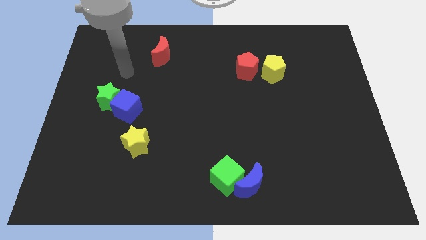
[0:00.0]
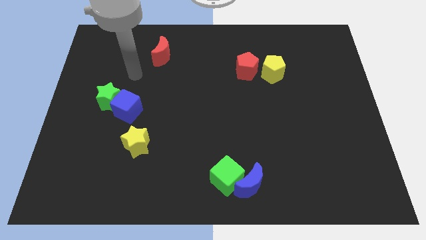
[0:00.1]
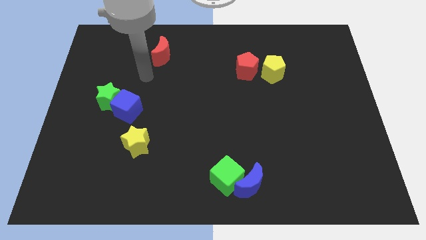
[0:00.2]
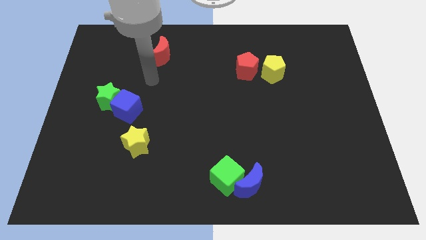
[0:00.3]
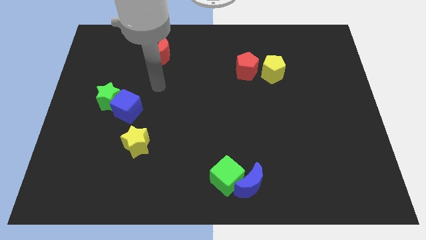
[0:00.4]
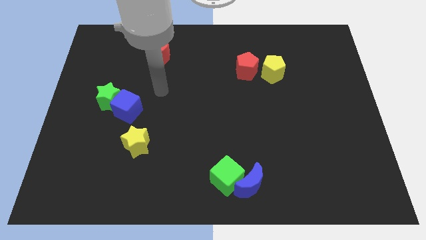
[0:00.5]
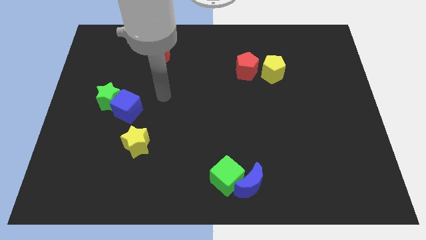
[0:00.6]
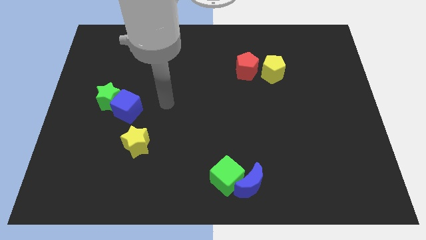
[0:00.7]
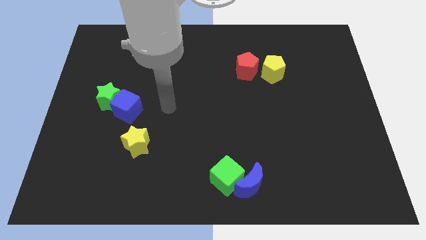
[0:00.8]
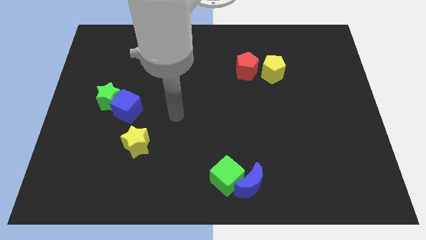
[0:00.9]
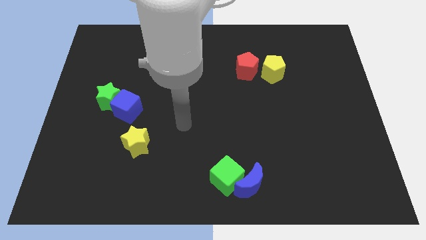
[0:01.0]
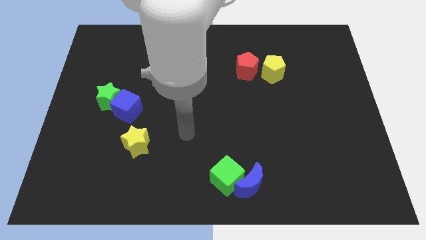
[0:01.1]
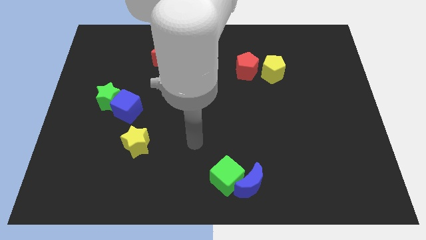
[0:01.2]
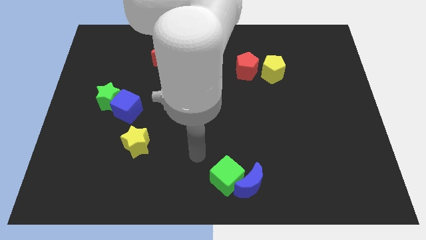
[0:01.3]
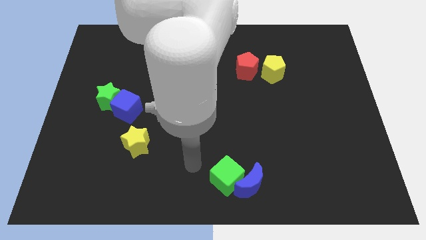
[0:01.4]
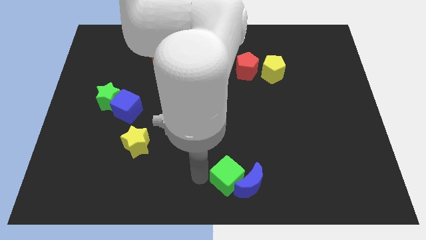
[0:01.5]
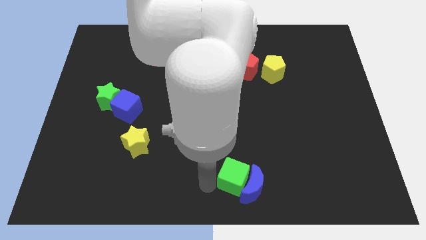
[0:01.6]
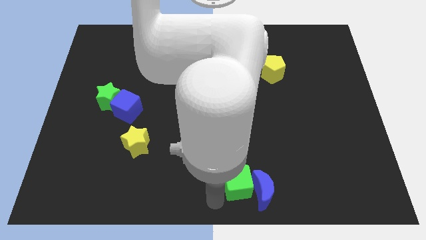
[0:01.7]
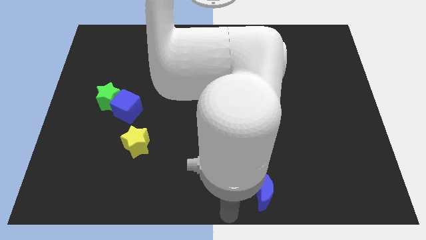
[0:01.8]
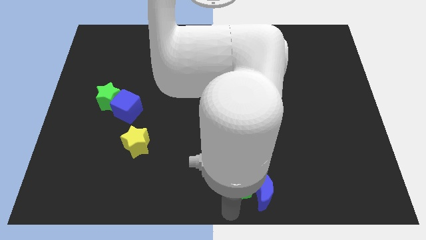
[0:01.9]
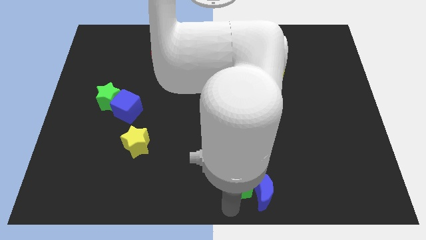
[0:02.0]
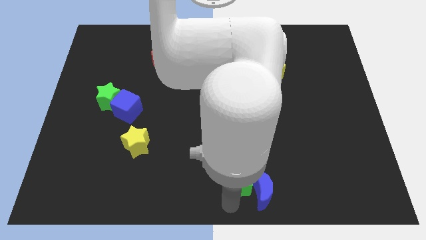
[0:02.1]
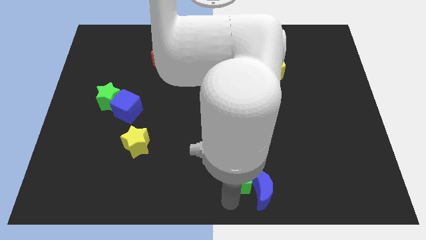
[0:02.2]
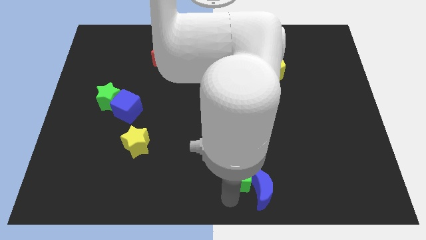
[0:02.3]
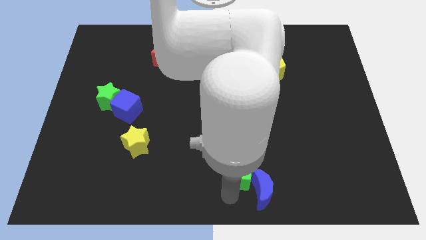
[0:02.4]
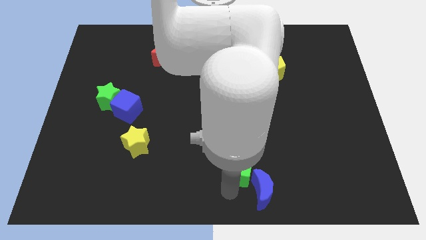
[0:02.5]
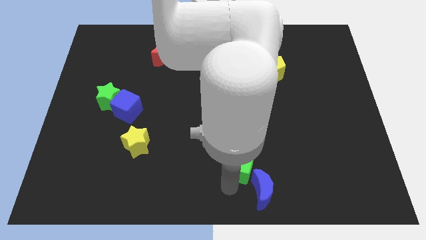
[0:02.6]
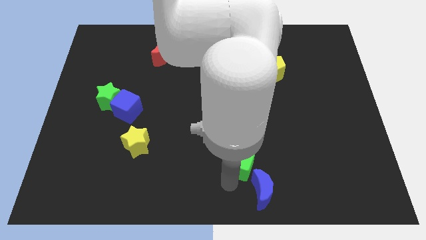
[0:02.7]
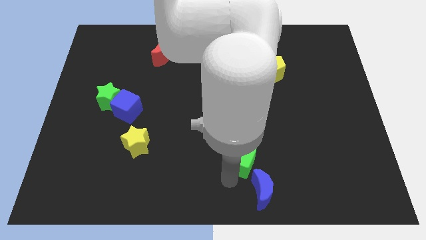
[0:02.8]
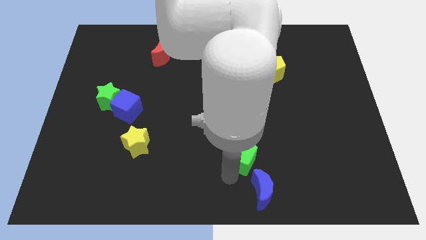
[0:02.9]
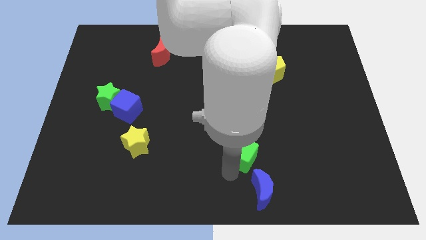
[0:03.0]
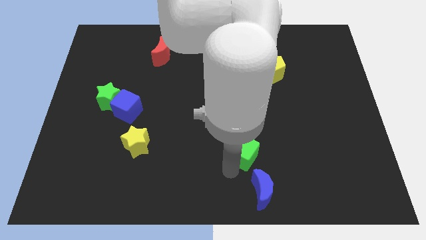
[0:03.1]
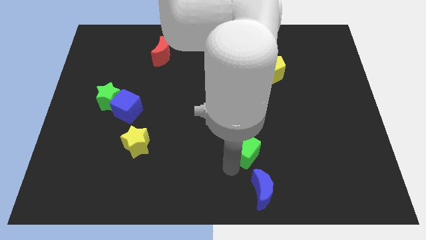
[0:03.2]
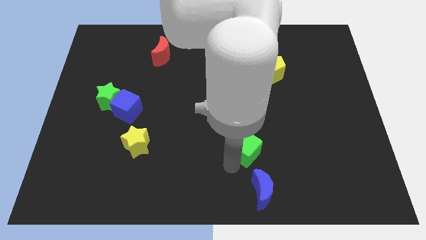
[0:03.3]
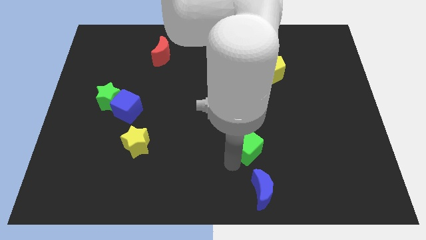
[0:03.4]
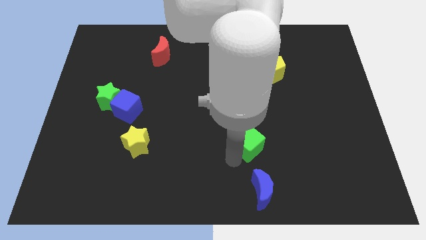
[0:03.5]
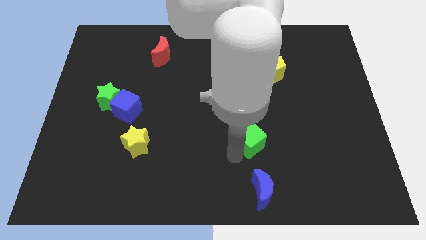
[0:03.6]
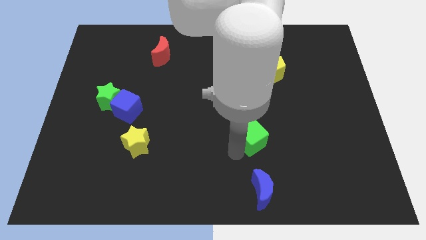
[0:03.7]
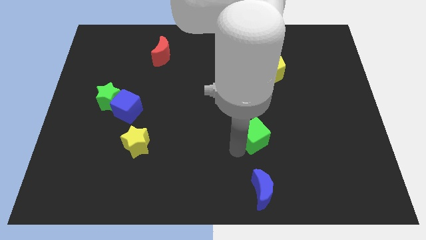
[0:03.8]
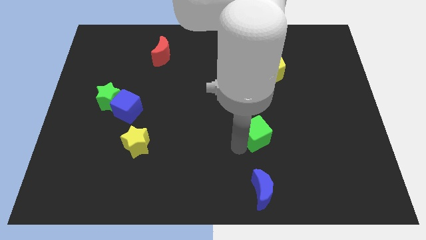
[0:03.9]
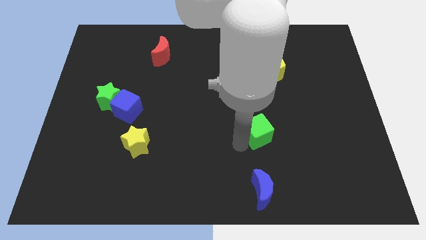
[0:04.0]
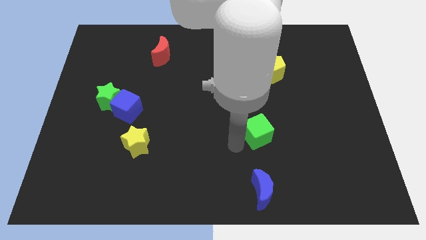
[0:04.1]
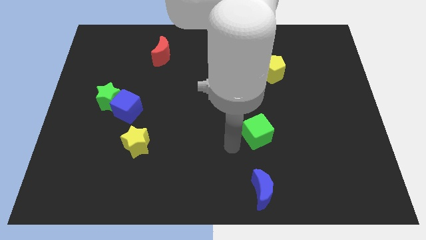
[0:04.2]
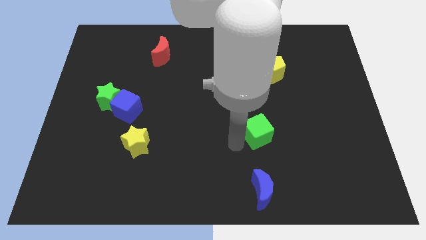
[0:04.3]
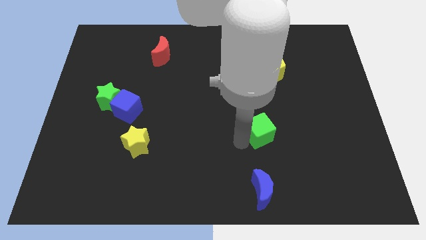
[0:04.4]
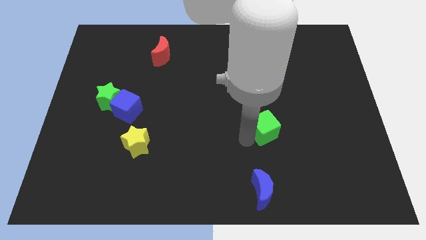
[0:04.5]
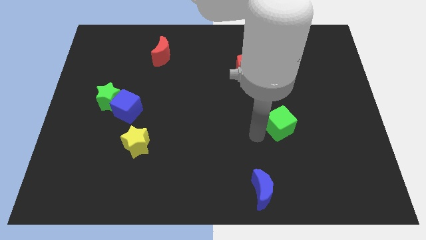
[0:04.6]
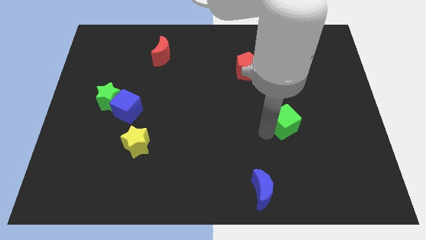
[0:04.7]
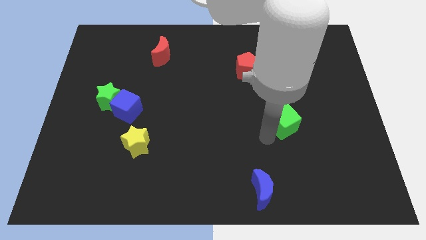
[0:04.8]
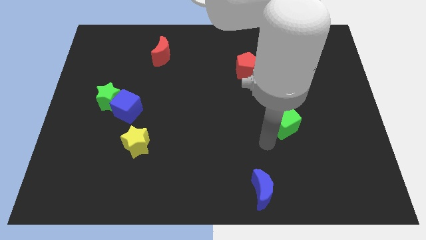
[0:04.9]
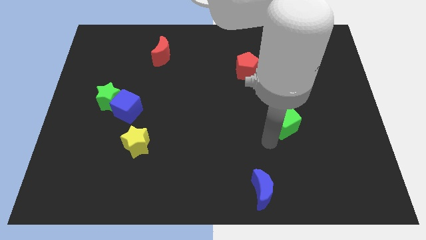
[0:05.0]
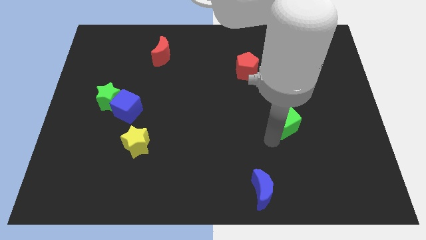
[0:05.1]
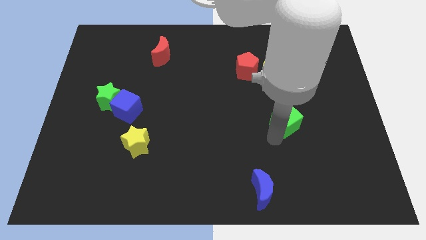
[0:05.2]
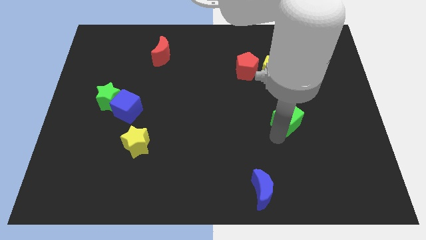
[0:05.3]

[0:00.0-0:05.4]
slide the green cube upwards and right diagonally

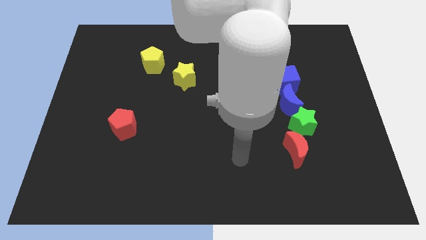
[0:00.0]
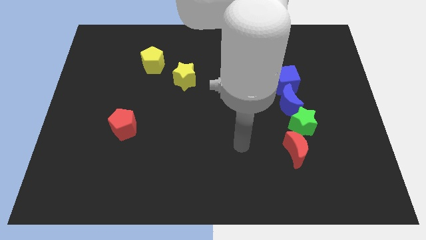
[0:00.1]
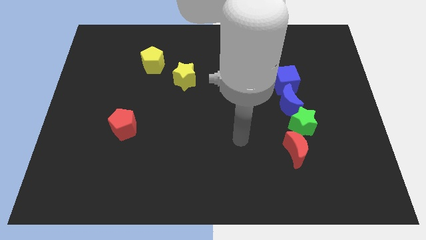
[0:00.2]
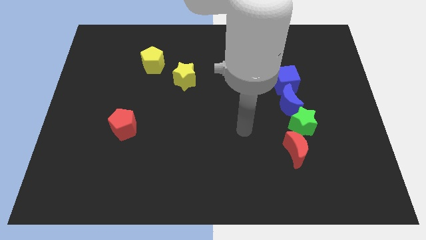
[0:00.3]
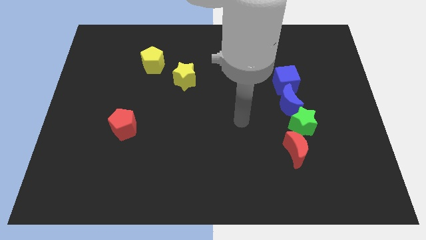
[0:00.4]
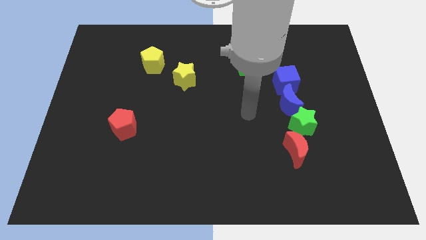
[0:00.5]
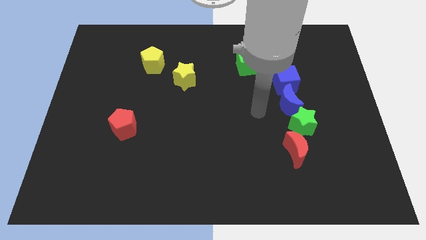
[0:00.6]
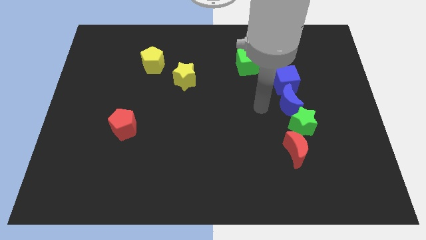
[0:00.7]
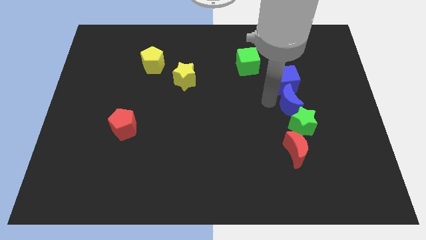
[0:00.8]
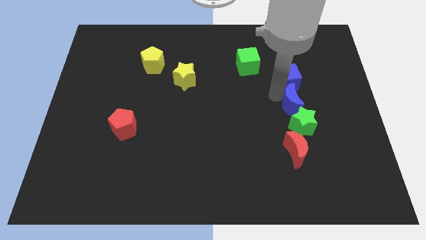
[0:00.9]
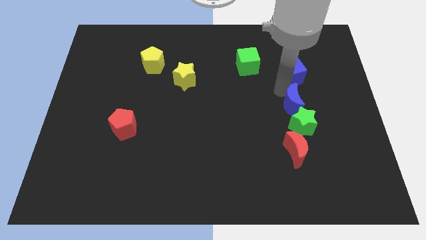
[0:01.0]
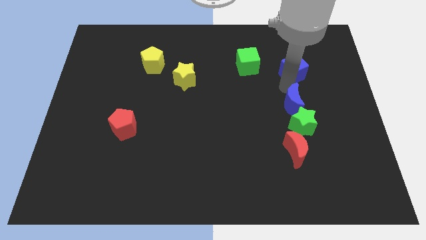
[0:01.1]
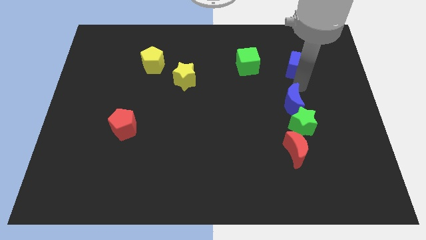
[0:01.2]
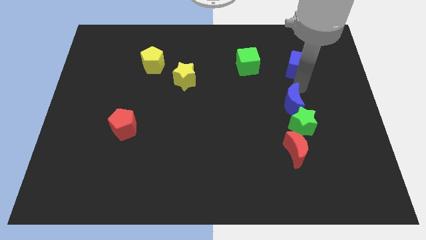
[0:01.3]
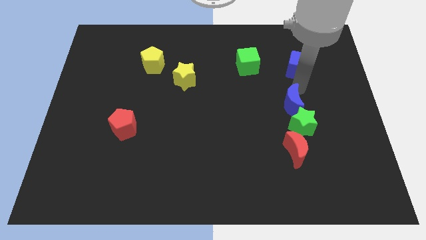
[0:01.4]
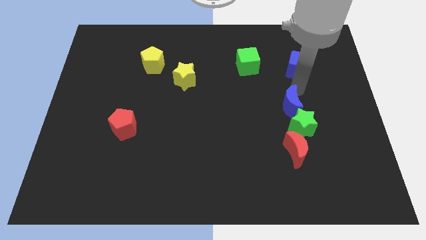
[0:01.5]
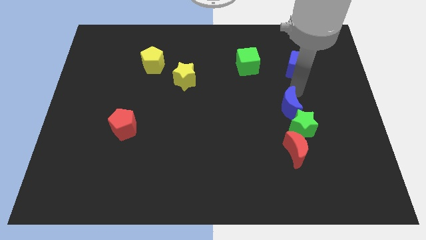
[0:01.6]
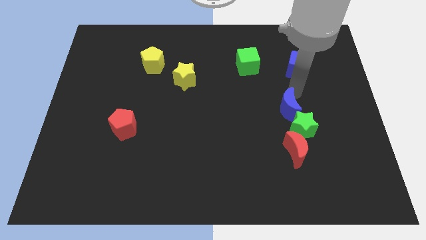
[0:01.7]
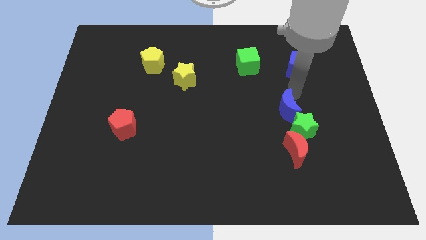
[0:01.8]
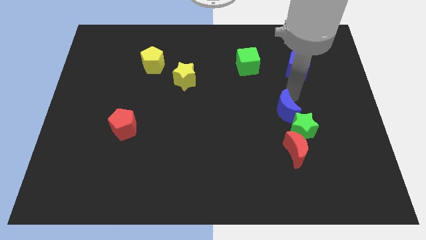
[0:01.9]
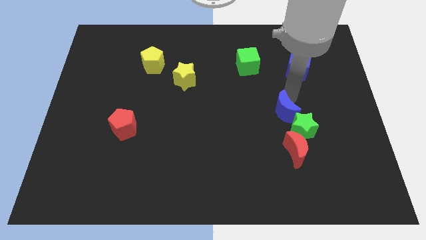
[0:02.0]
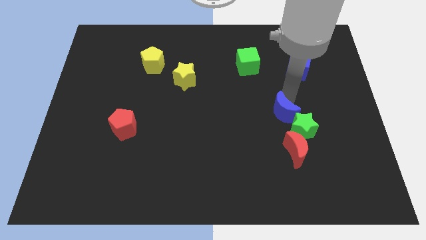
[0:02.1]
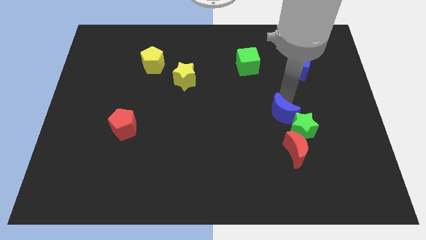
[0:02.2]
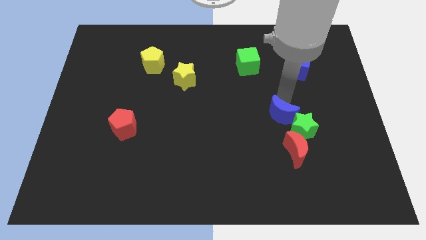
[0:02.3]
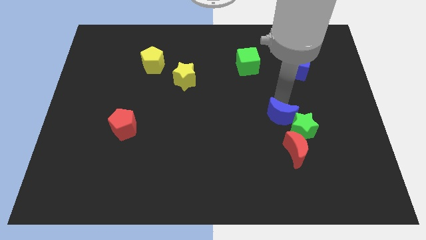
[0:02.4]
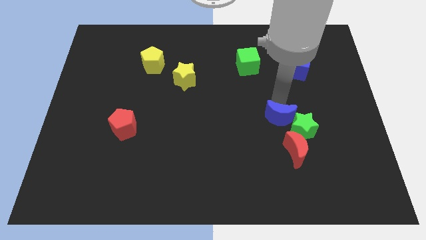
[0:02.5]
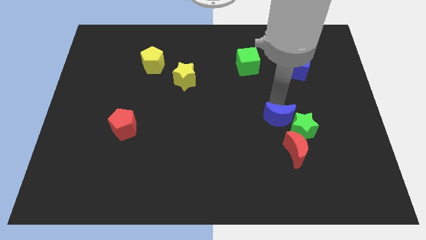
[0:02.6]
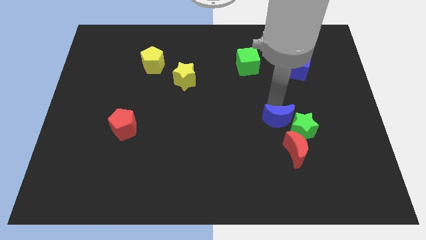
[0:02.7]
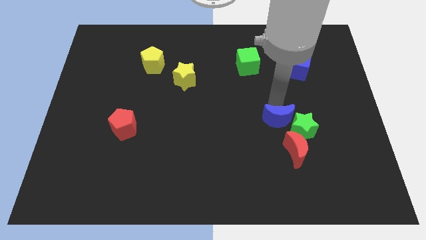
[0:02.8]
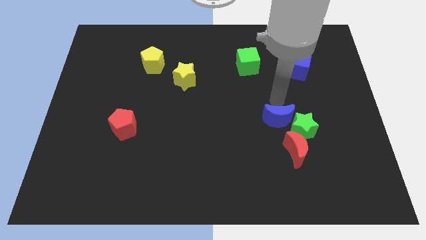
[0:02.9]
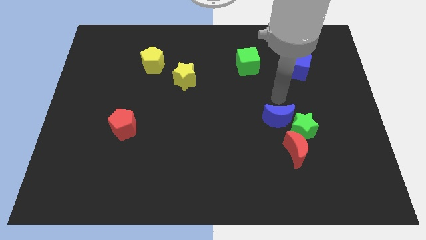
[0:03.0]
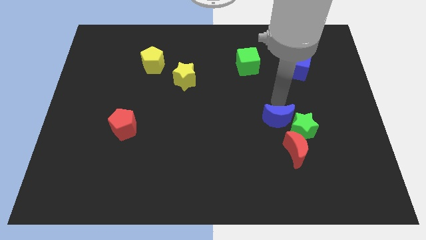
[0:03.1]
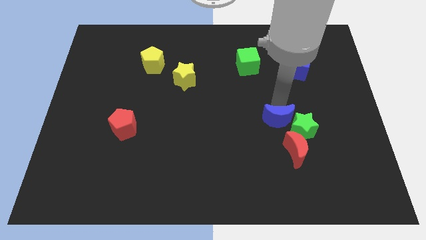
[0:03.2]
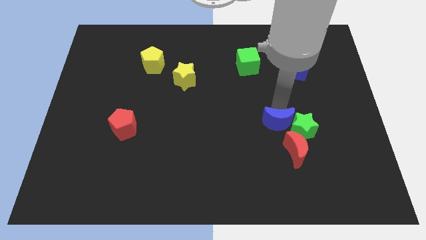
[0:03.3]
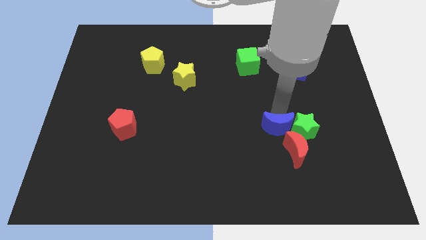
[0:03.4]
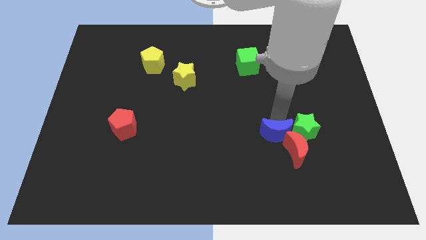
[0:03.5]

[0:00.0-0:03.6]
push the blue moon down a little
